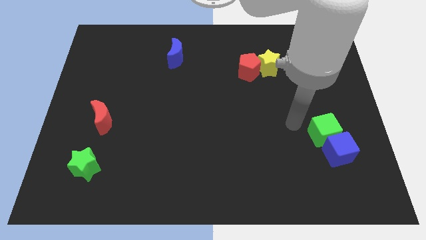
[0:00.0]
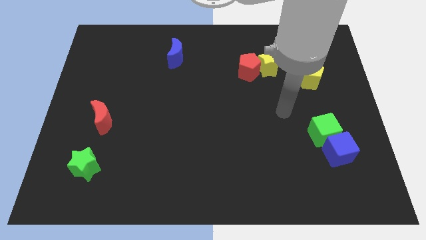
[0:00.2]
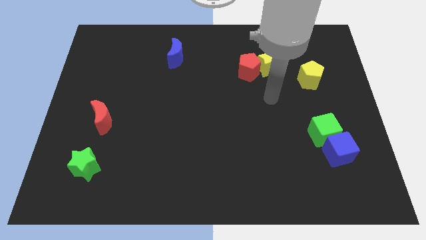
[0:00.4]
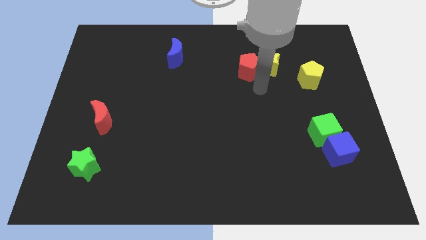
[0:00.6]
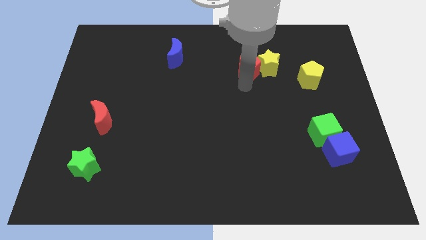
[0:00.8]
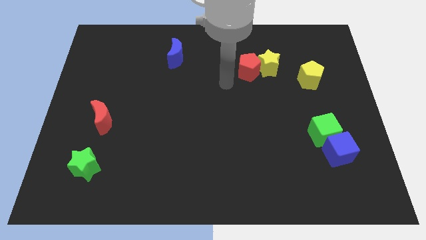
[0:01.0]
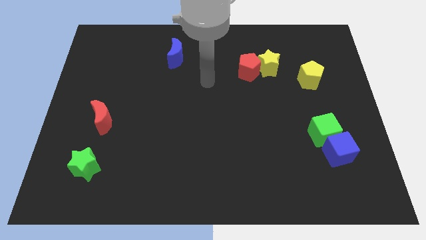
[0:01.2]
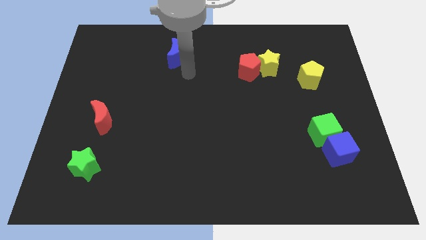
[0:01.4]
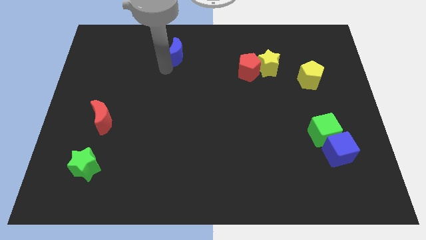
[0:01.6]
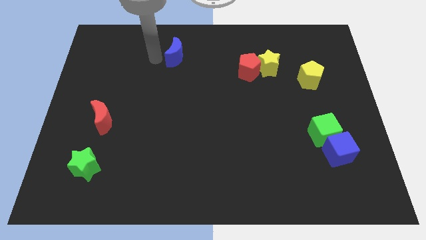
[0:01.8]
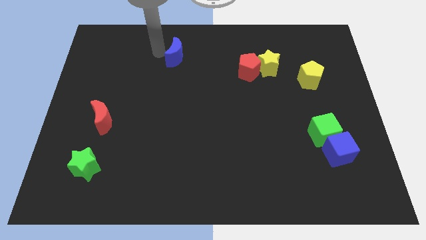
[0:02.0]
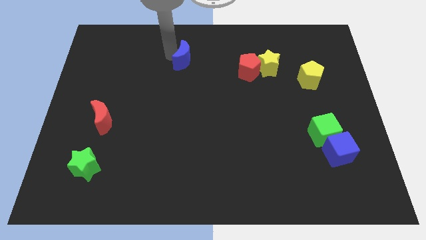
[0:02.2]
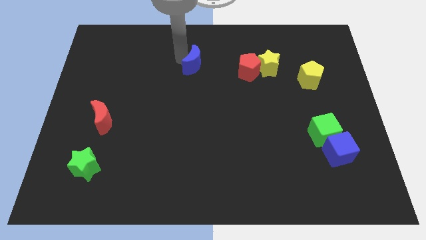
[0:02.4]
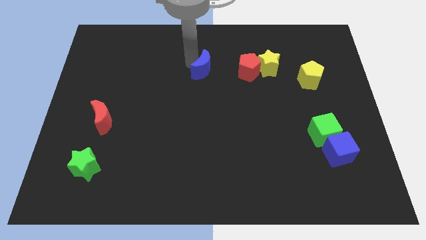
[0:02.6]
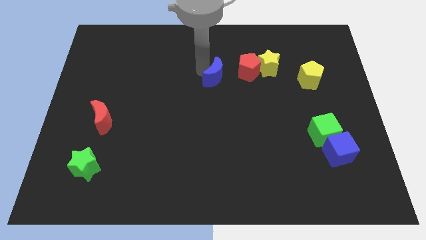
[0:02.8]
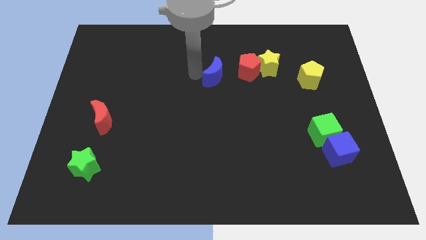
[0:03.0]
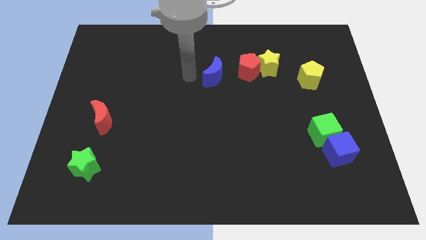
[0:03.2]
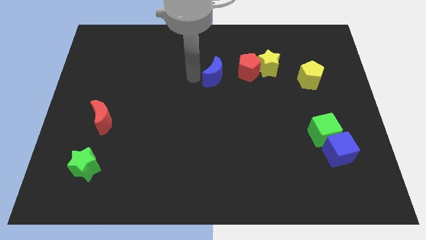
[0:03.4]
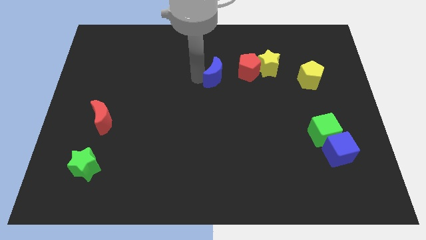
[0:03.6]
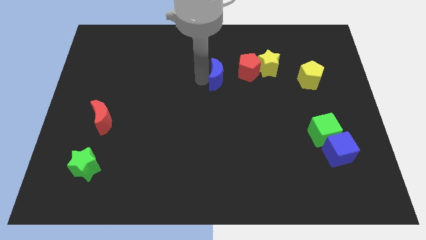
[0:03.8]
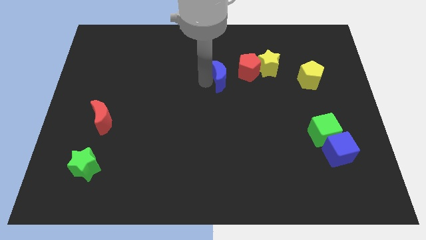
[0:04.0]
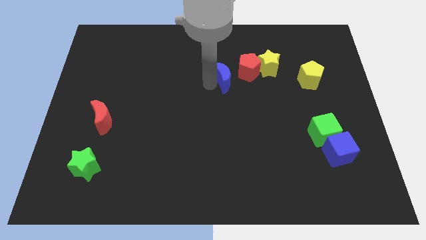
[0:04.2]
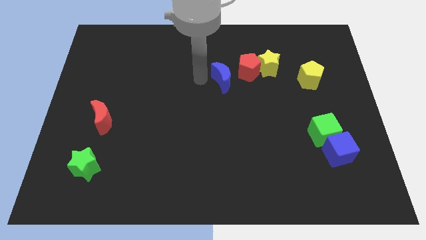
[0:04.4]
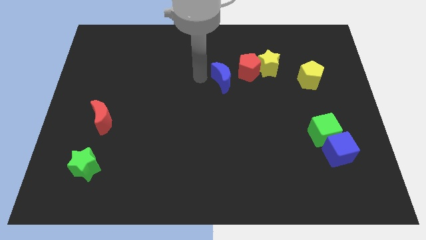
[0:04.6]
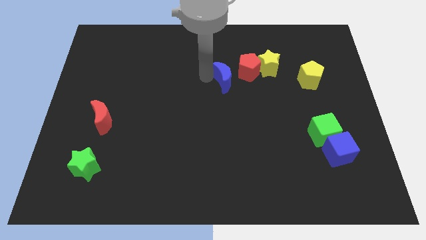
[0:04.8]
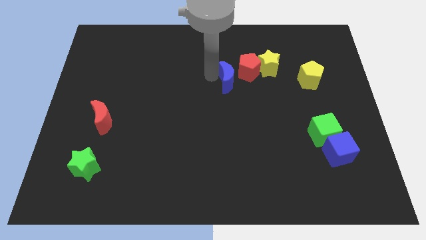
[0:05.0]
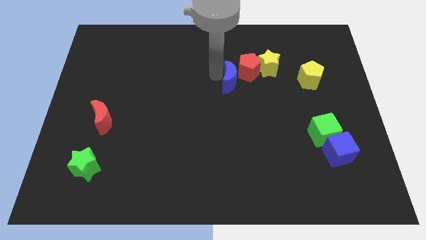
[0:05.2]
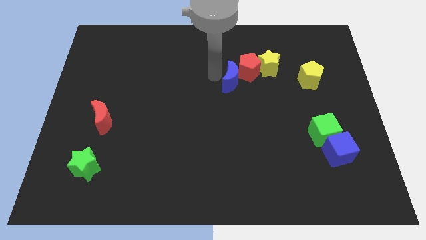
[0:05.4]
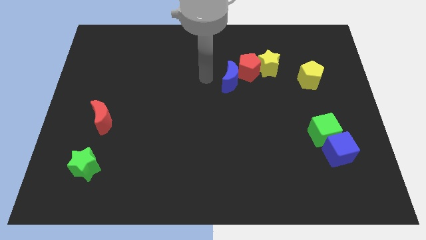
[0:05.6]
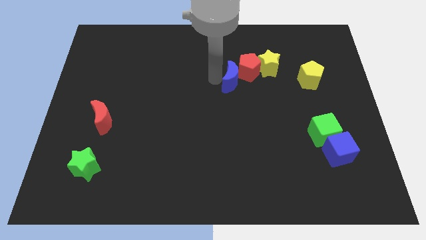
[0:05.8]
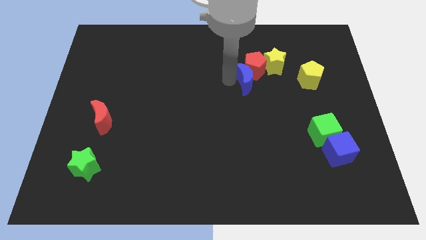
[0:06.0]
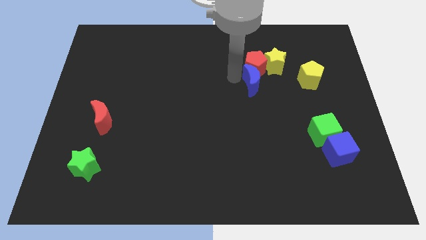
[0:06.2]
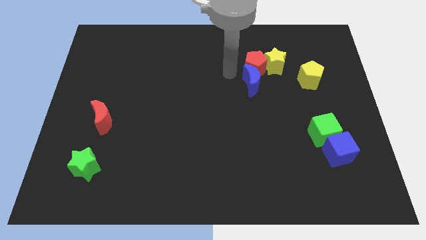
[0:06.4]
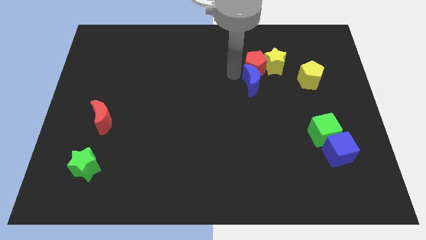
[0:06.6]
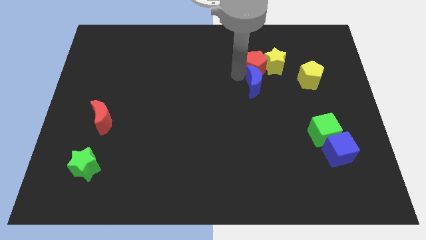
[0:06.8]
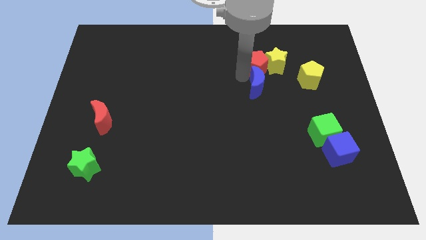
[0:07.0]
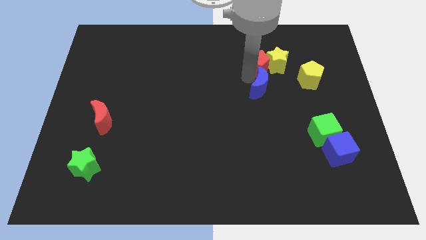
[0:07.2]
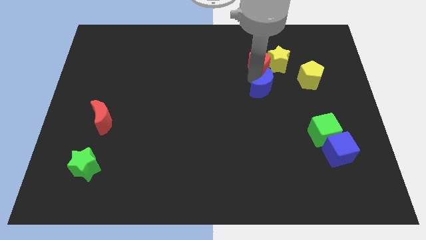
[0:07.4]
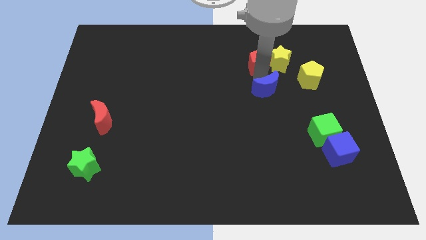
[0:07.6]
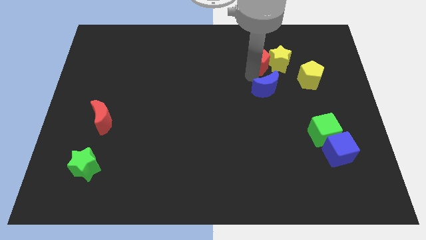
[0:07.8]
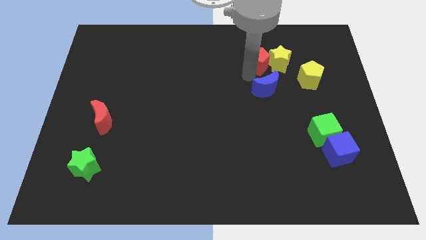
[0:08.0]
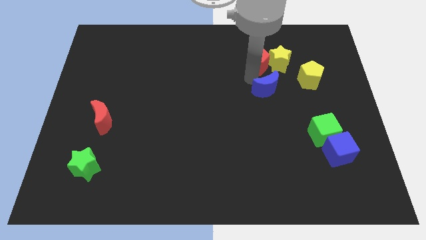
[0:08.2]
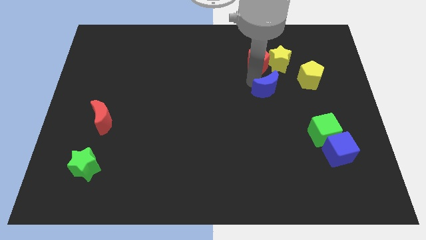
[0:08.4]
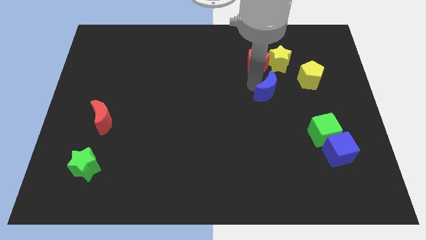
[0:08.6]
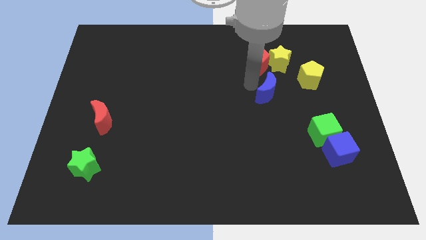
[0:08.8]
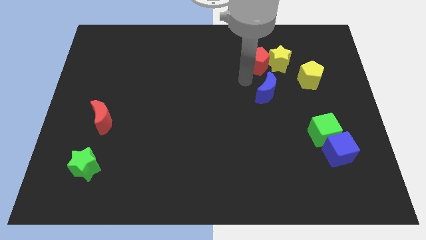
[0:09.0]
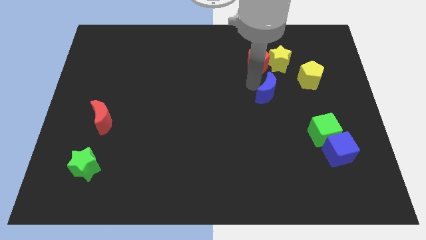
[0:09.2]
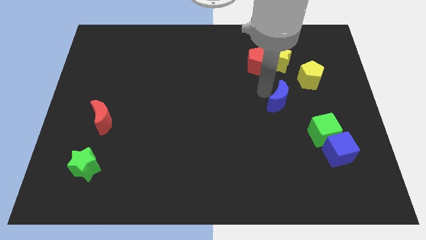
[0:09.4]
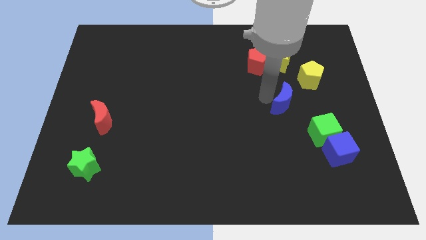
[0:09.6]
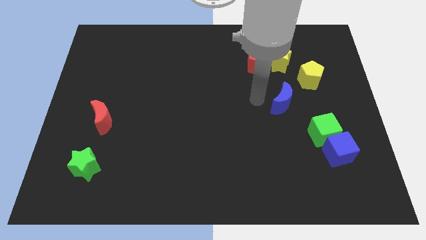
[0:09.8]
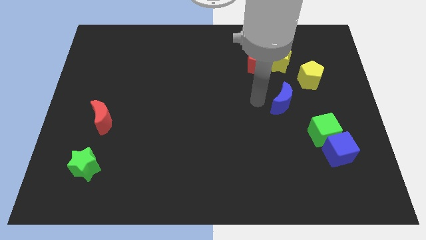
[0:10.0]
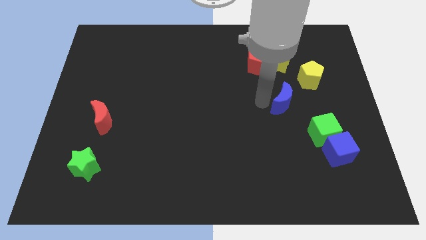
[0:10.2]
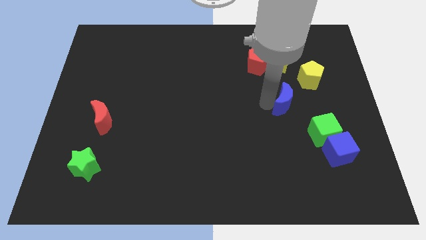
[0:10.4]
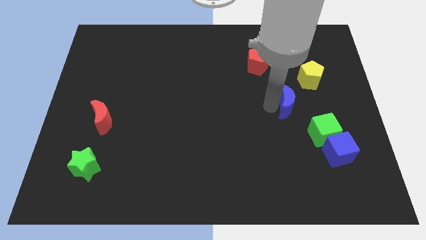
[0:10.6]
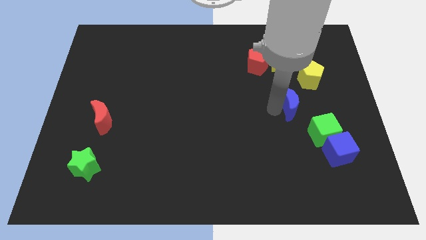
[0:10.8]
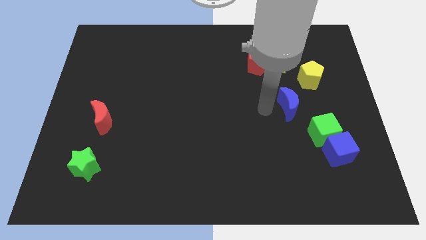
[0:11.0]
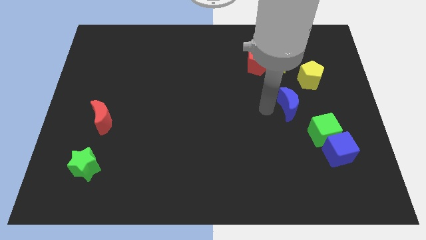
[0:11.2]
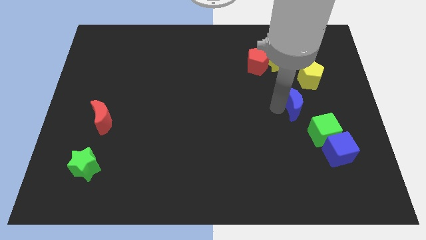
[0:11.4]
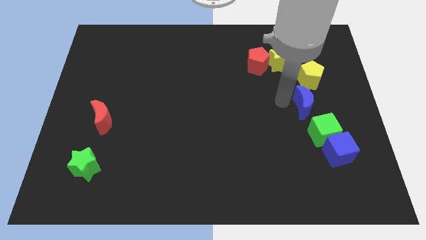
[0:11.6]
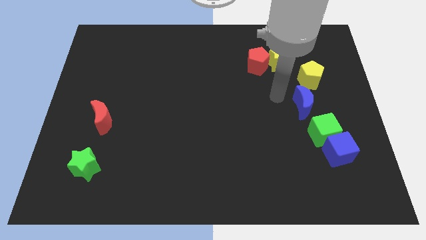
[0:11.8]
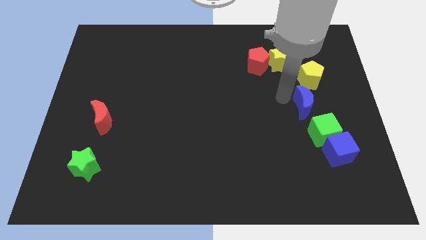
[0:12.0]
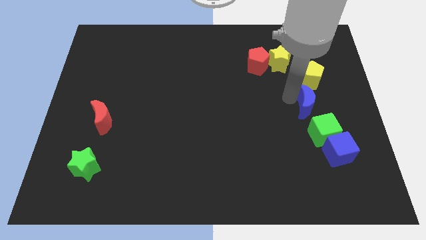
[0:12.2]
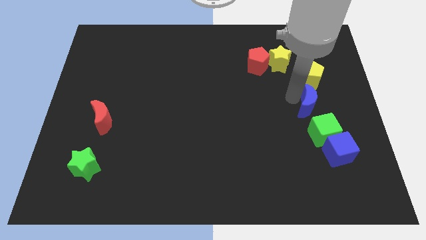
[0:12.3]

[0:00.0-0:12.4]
move the blue moon above the blue cube

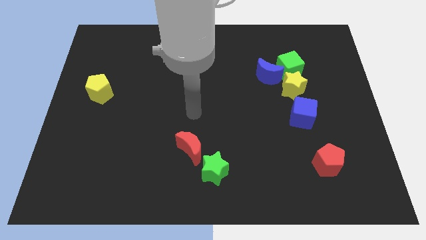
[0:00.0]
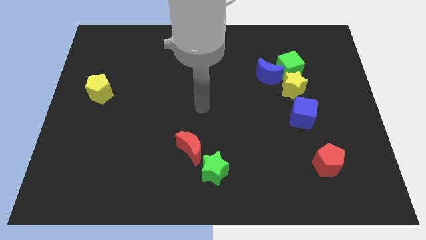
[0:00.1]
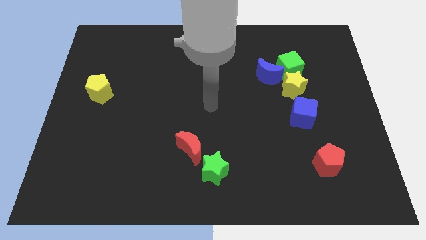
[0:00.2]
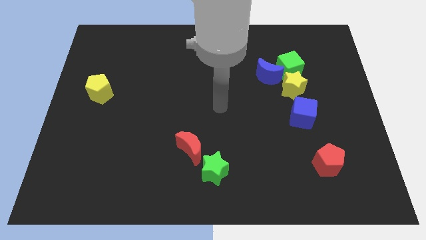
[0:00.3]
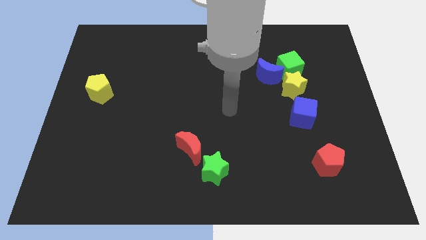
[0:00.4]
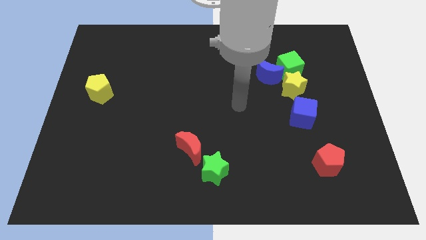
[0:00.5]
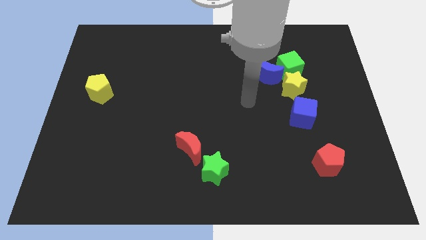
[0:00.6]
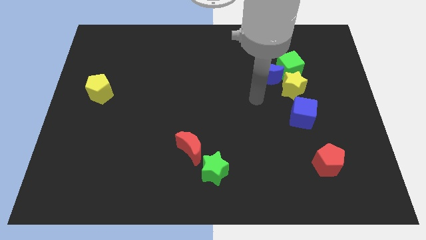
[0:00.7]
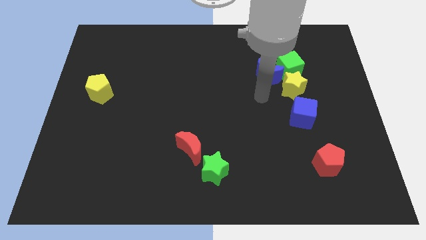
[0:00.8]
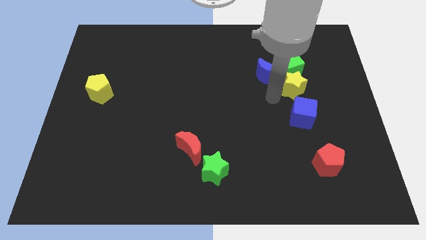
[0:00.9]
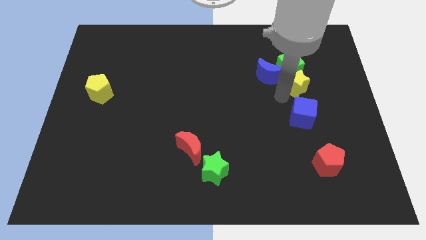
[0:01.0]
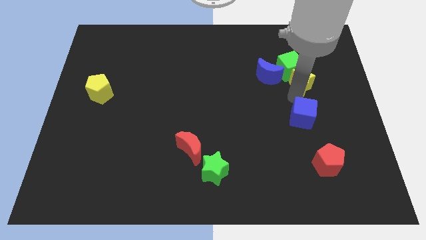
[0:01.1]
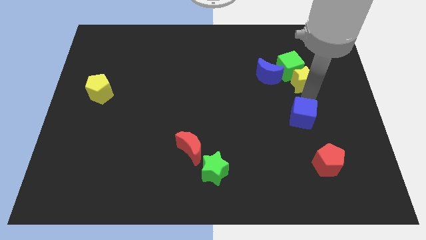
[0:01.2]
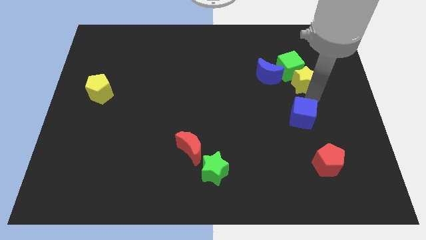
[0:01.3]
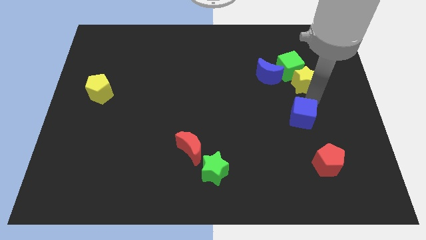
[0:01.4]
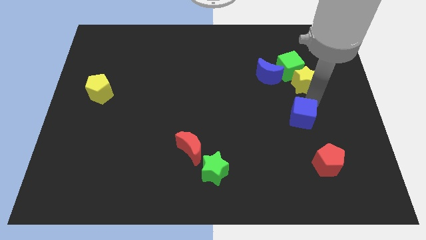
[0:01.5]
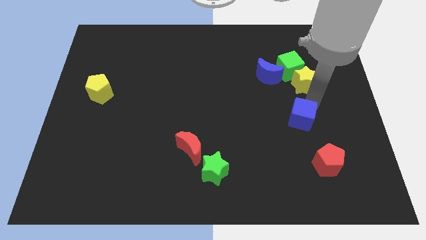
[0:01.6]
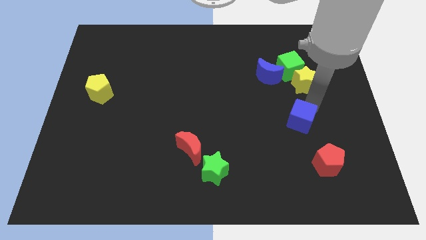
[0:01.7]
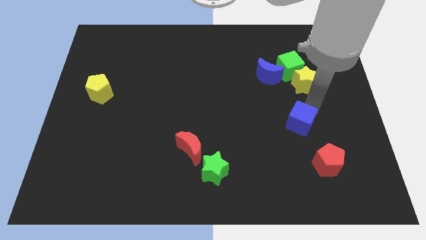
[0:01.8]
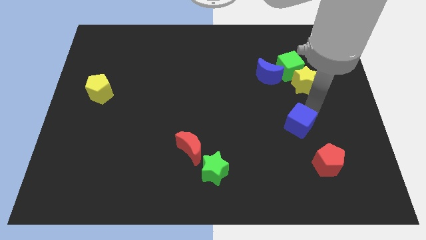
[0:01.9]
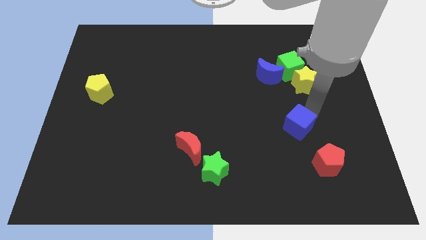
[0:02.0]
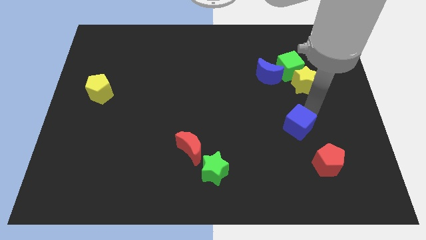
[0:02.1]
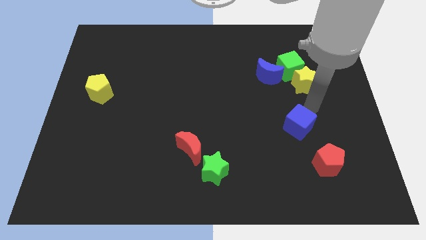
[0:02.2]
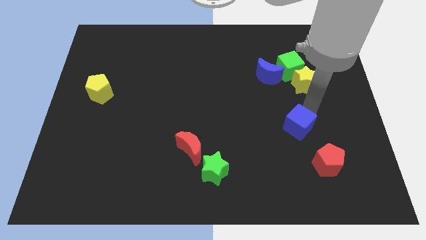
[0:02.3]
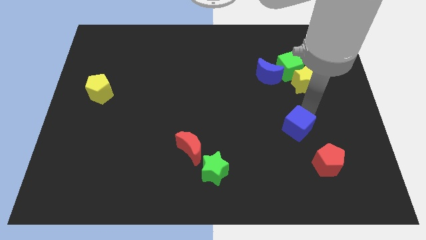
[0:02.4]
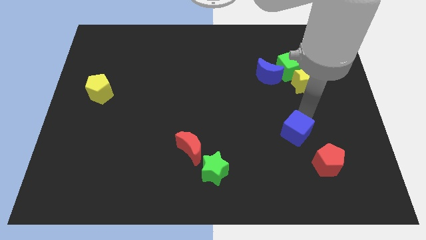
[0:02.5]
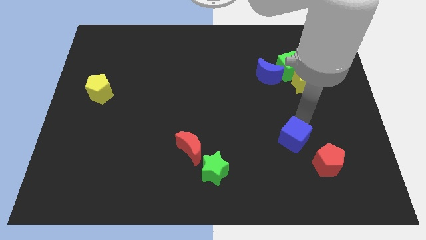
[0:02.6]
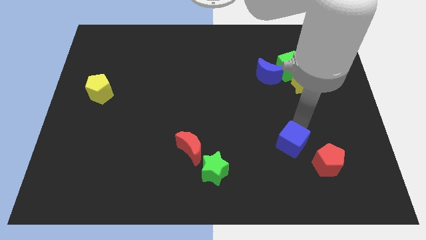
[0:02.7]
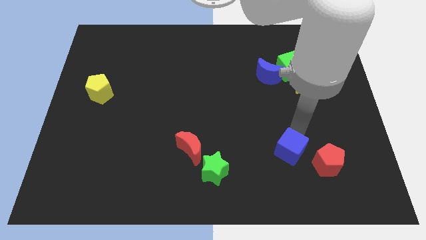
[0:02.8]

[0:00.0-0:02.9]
move the blue cube to the left of the red pentagon
